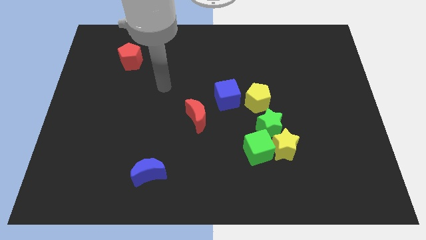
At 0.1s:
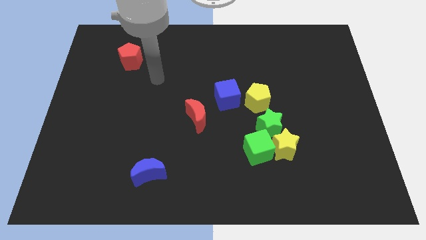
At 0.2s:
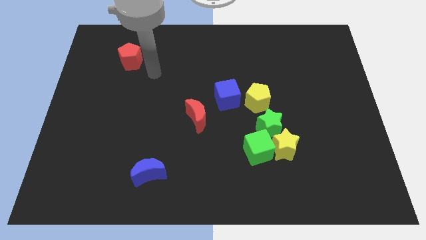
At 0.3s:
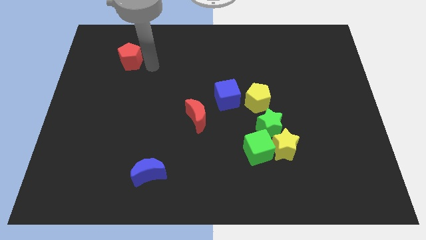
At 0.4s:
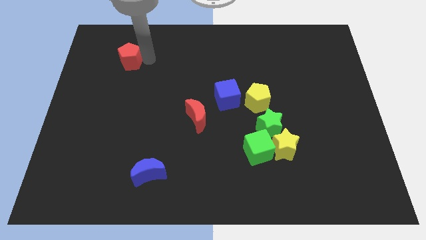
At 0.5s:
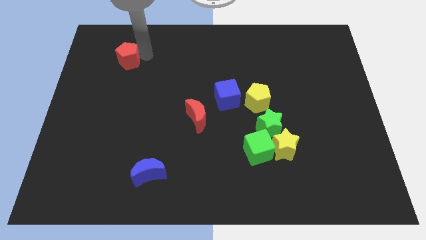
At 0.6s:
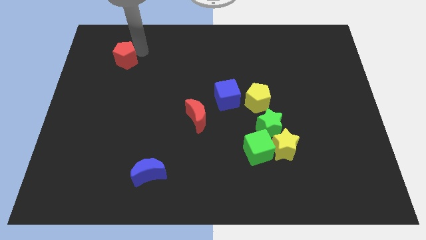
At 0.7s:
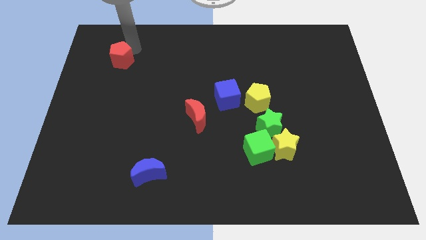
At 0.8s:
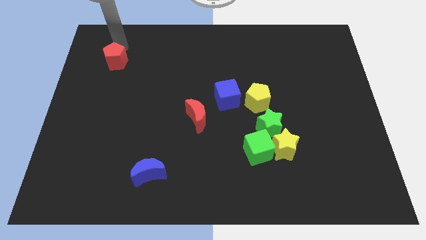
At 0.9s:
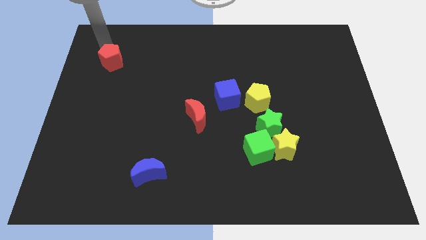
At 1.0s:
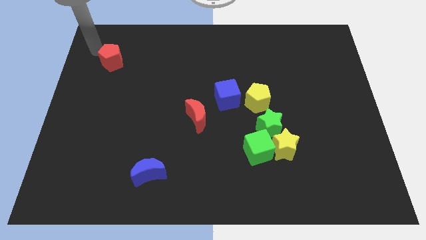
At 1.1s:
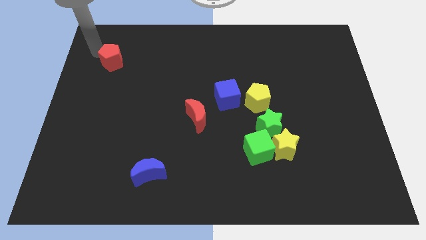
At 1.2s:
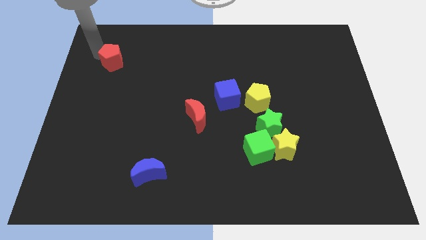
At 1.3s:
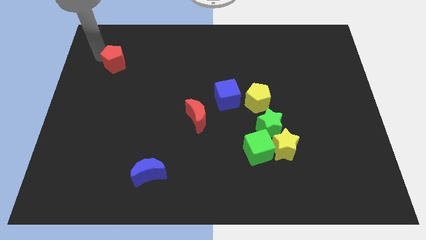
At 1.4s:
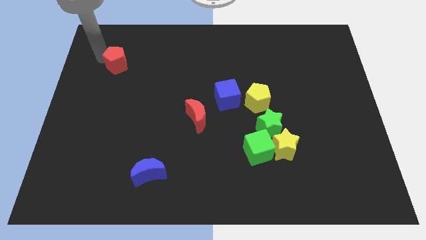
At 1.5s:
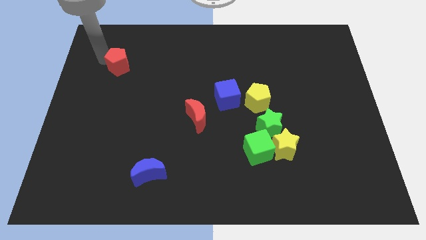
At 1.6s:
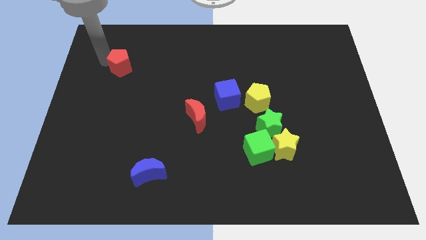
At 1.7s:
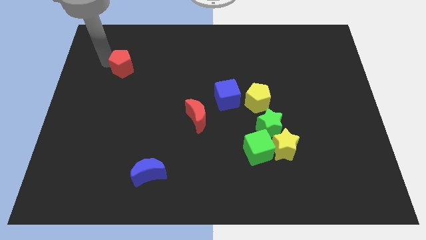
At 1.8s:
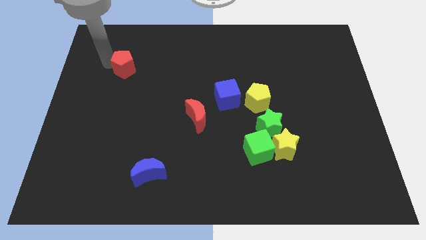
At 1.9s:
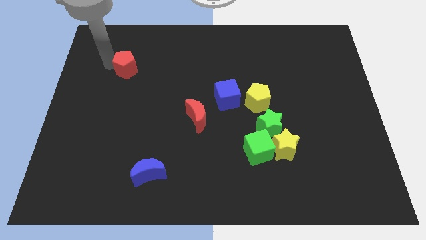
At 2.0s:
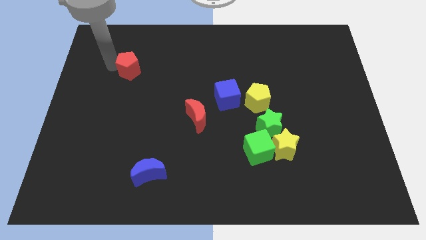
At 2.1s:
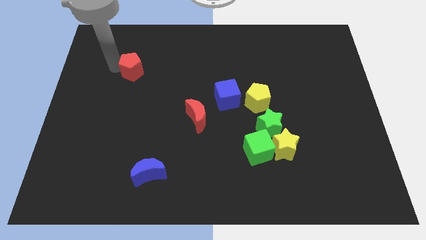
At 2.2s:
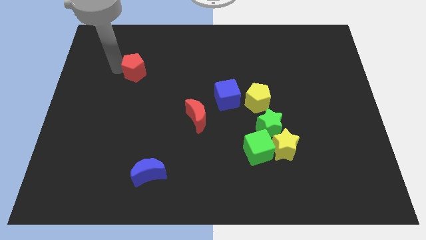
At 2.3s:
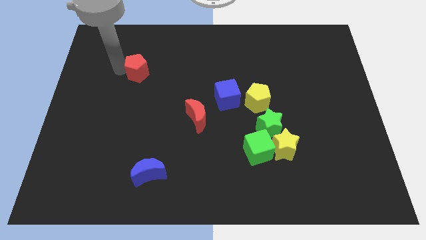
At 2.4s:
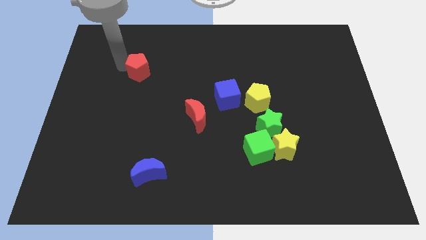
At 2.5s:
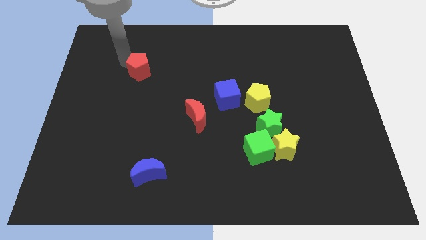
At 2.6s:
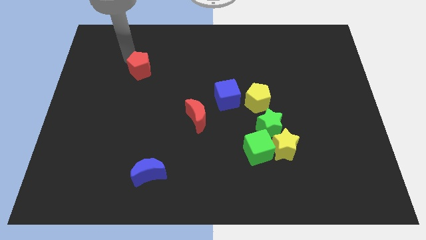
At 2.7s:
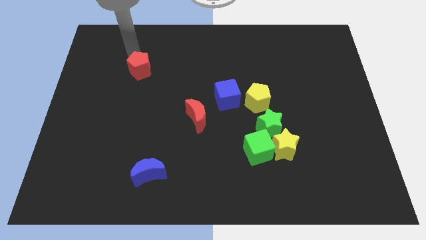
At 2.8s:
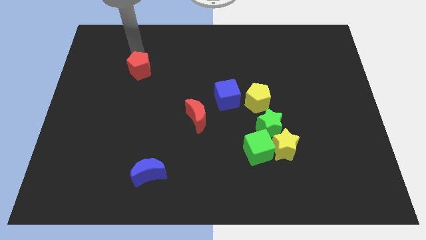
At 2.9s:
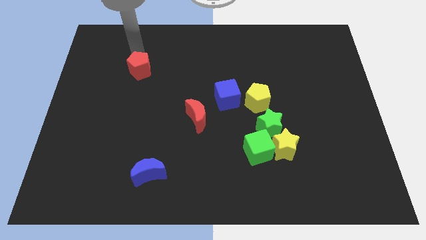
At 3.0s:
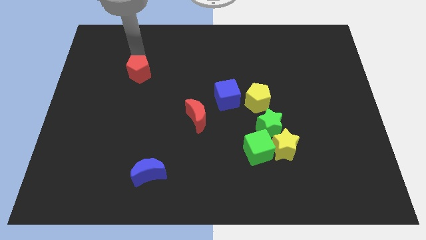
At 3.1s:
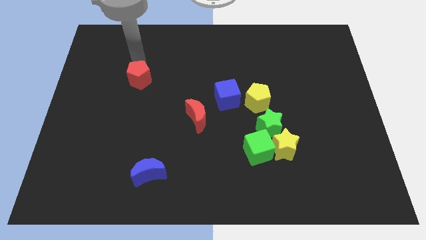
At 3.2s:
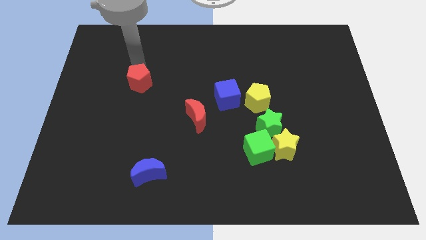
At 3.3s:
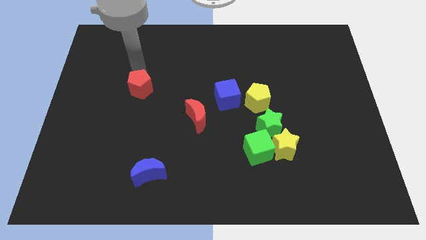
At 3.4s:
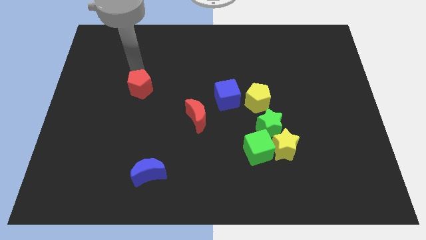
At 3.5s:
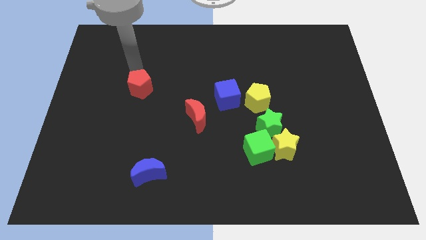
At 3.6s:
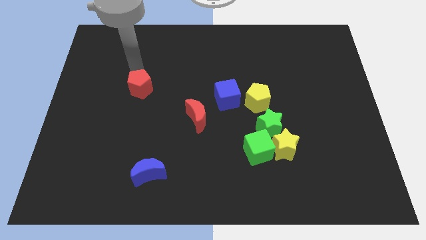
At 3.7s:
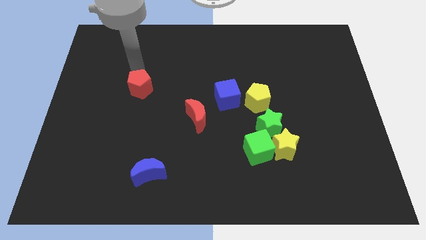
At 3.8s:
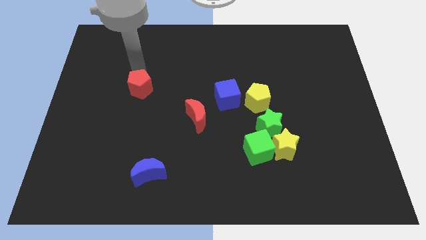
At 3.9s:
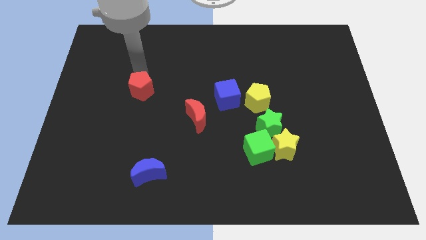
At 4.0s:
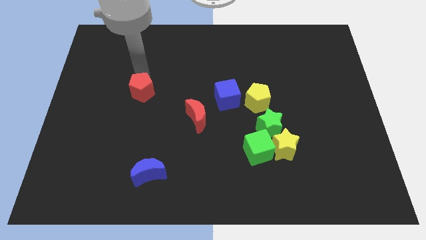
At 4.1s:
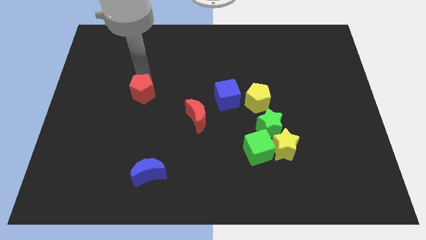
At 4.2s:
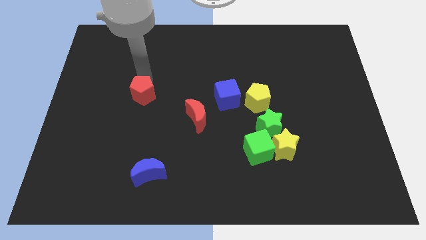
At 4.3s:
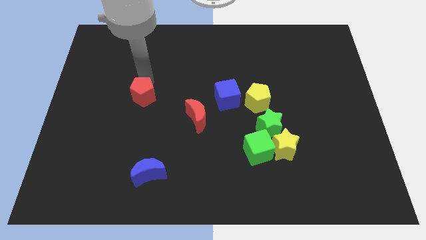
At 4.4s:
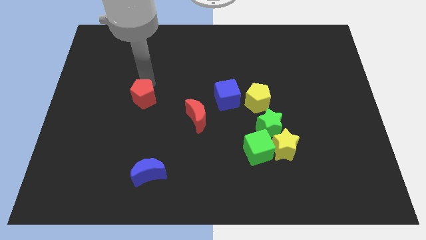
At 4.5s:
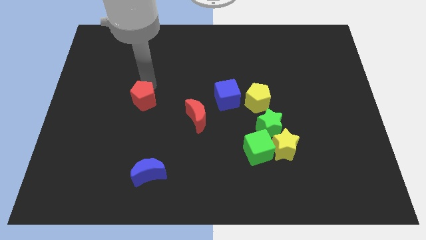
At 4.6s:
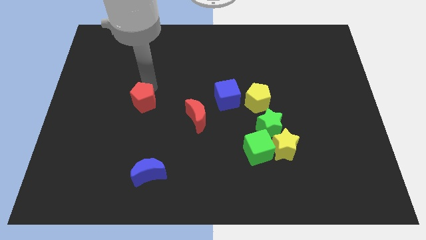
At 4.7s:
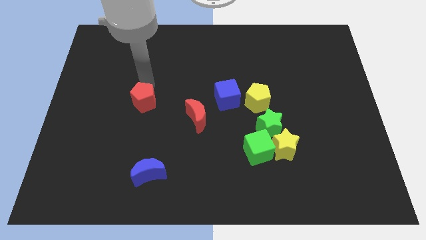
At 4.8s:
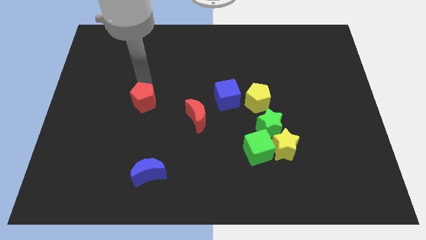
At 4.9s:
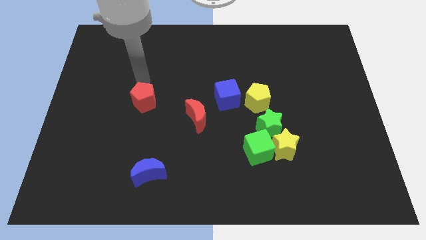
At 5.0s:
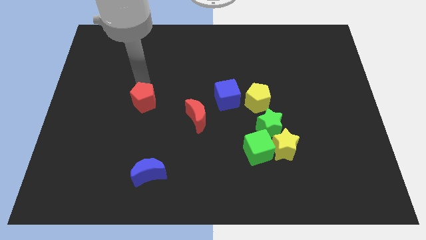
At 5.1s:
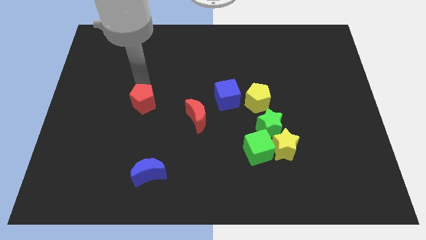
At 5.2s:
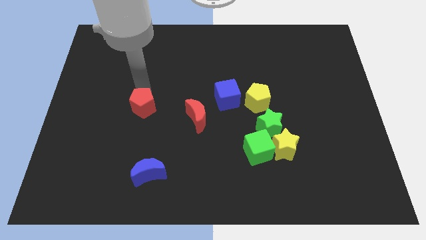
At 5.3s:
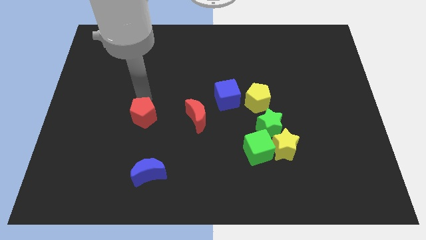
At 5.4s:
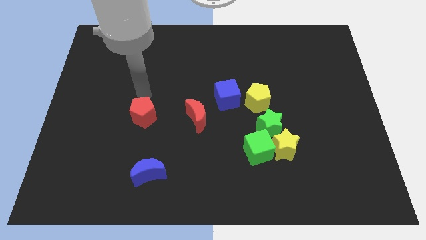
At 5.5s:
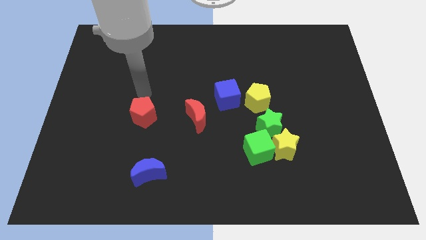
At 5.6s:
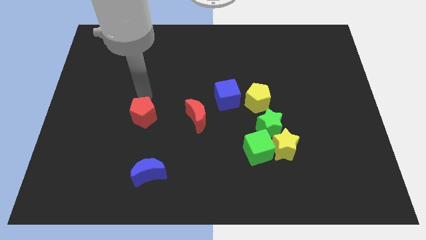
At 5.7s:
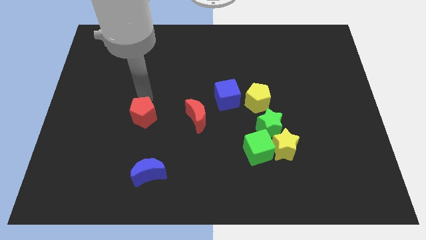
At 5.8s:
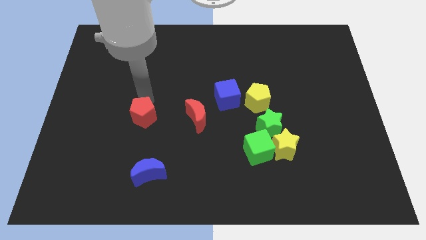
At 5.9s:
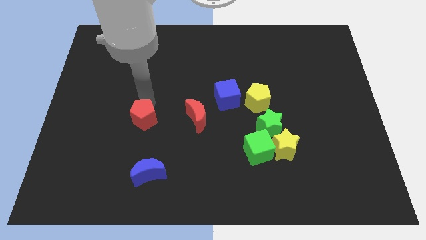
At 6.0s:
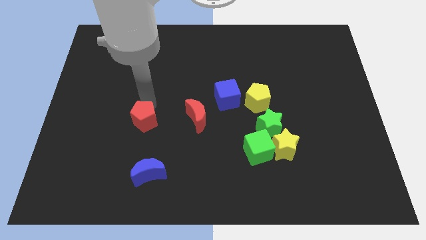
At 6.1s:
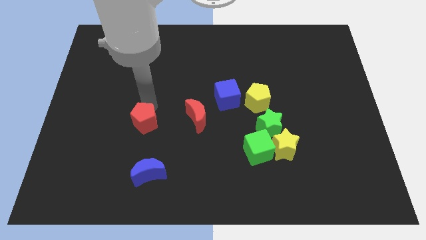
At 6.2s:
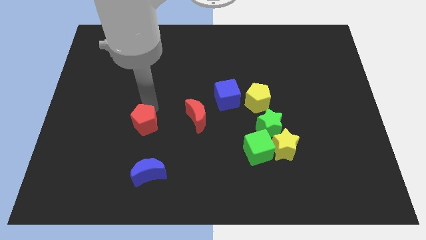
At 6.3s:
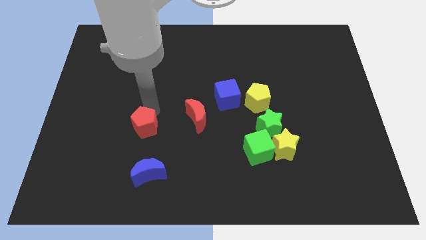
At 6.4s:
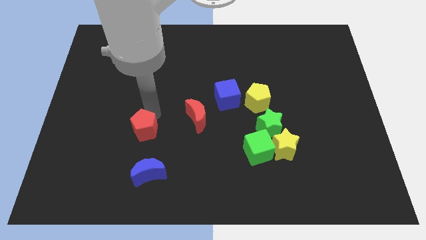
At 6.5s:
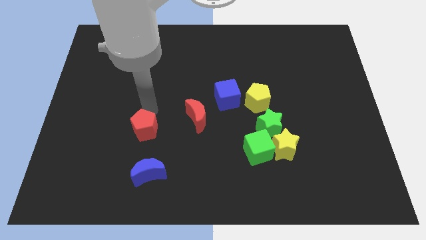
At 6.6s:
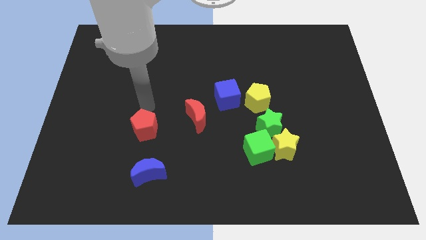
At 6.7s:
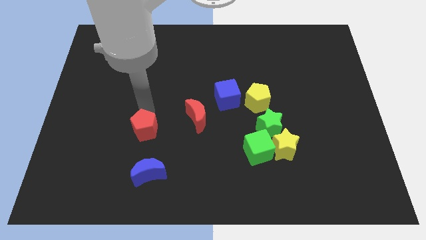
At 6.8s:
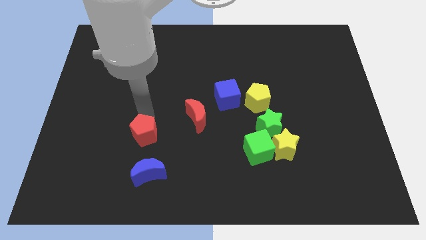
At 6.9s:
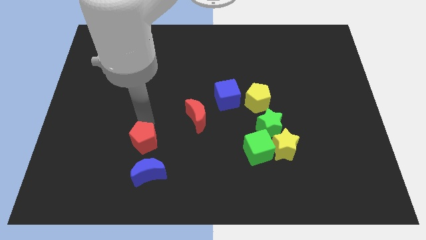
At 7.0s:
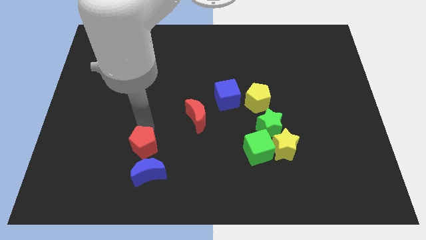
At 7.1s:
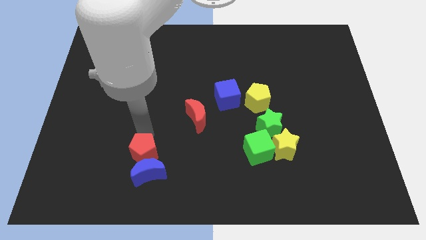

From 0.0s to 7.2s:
move the red pentagon next to the blue moon
